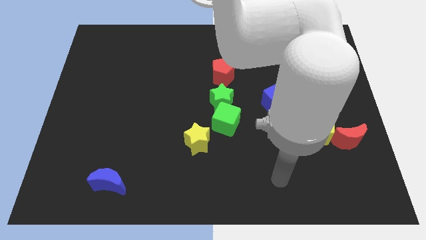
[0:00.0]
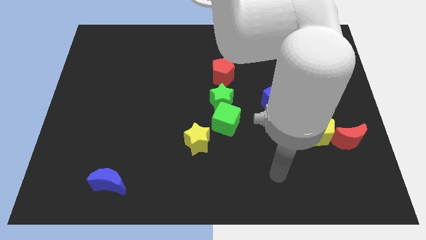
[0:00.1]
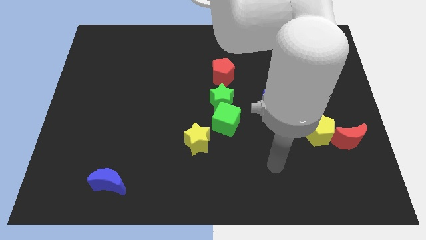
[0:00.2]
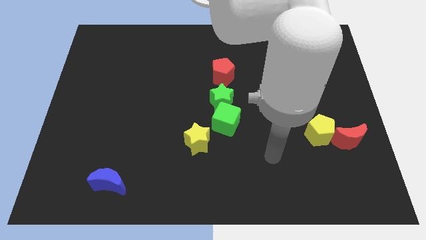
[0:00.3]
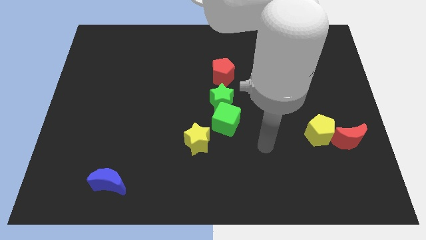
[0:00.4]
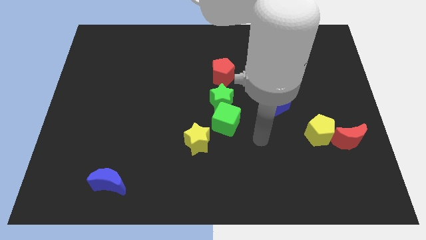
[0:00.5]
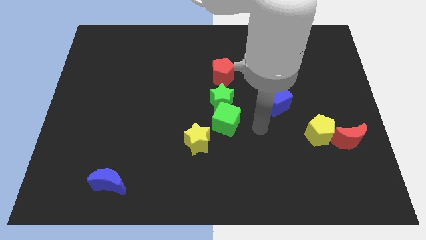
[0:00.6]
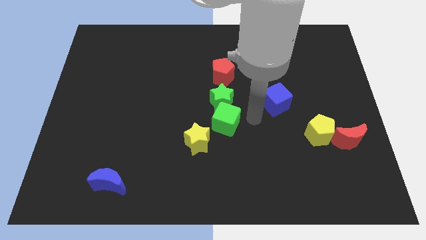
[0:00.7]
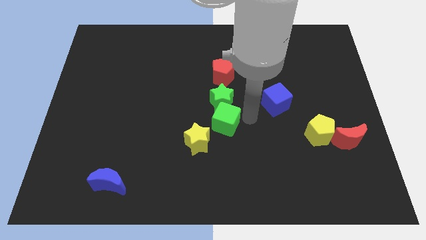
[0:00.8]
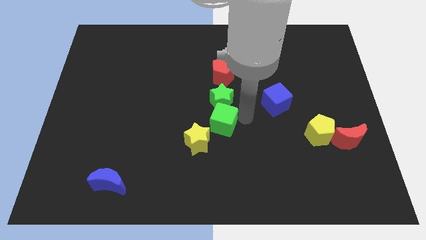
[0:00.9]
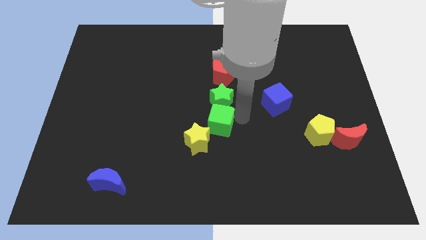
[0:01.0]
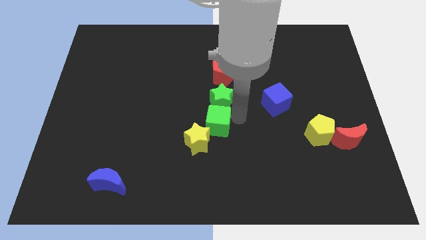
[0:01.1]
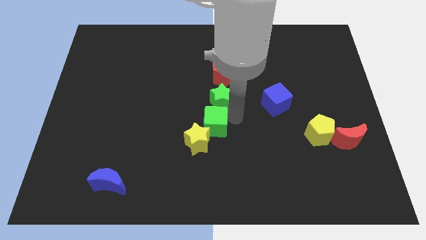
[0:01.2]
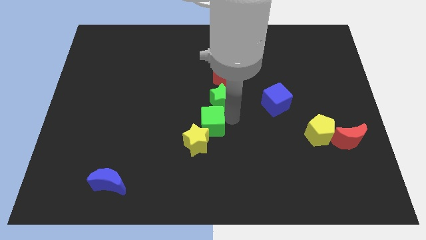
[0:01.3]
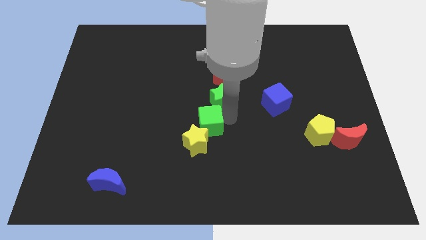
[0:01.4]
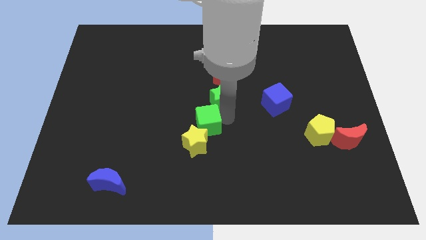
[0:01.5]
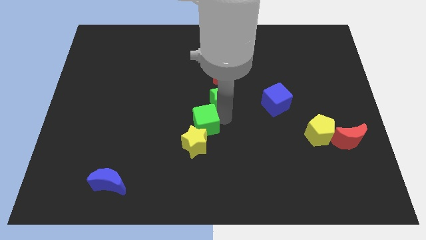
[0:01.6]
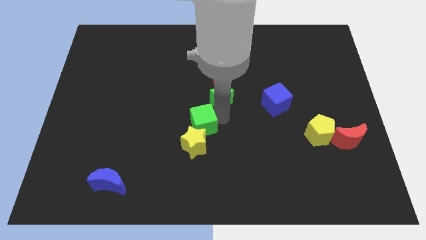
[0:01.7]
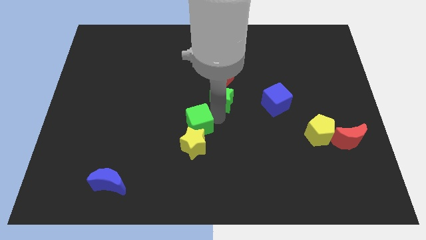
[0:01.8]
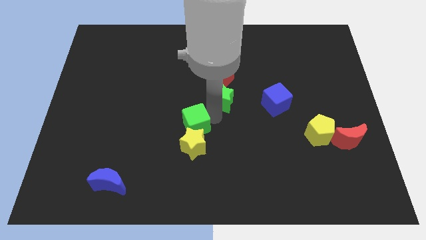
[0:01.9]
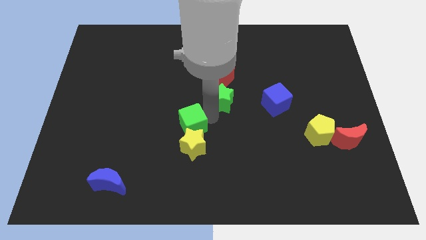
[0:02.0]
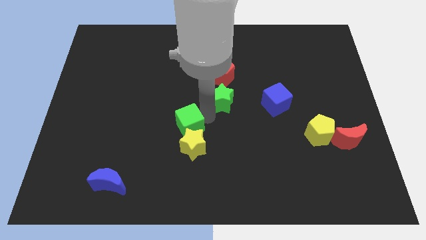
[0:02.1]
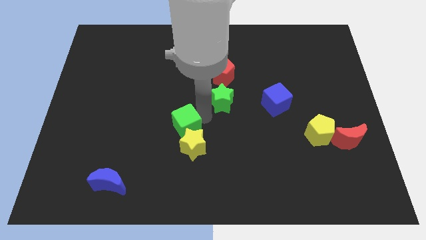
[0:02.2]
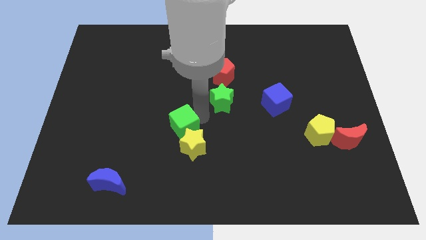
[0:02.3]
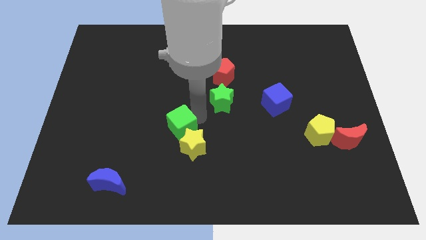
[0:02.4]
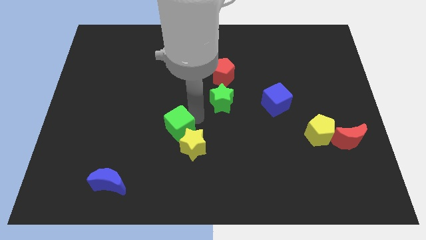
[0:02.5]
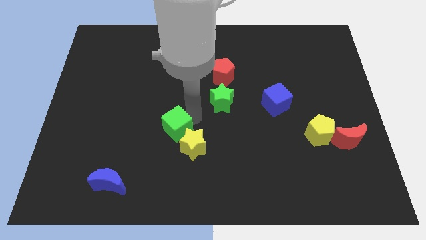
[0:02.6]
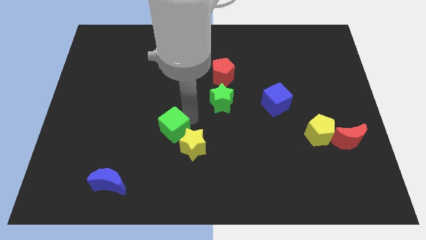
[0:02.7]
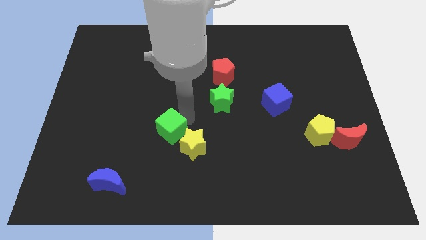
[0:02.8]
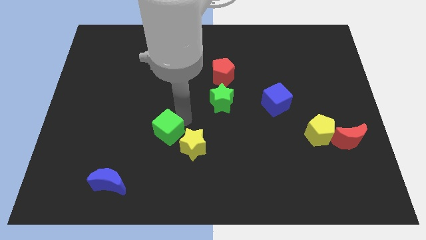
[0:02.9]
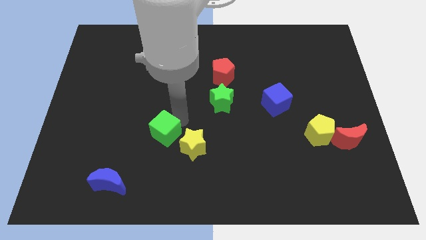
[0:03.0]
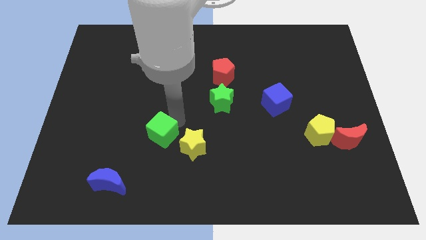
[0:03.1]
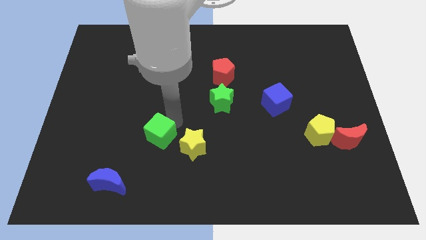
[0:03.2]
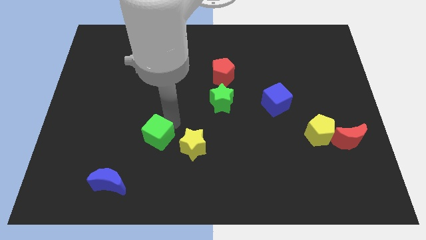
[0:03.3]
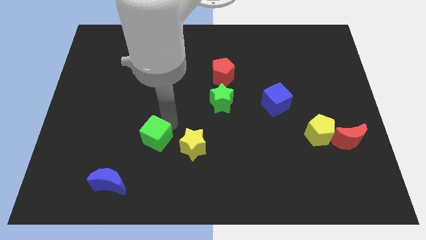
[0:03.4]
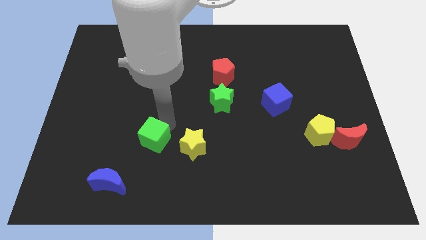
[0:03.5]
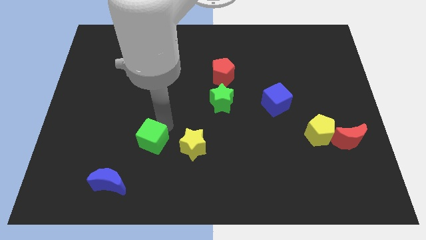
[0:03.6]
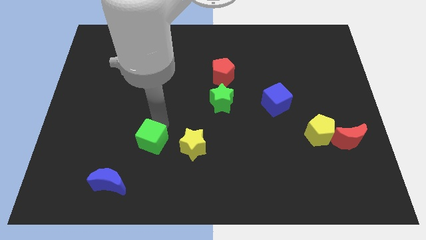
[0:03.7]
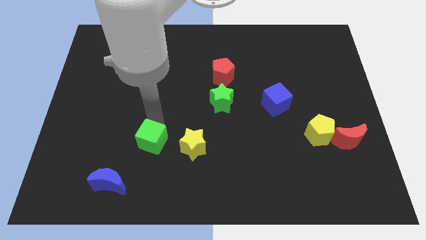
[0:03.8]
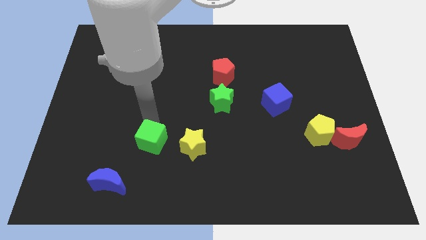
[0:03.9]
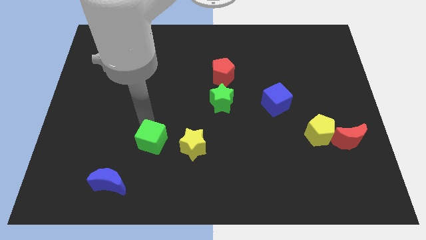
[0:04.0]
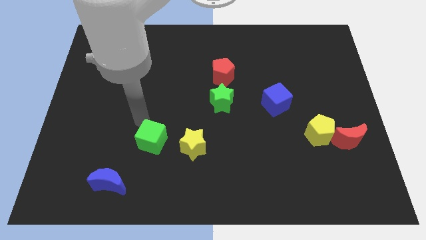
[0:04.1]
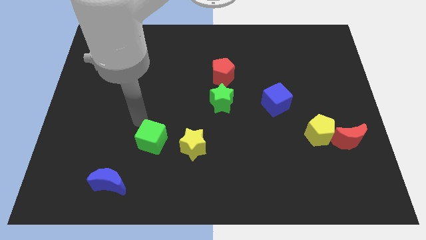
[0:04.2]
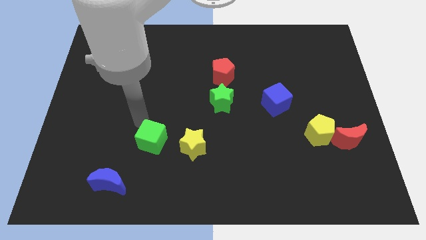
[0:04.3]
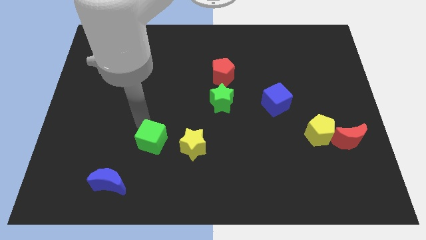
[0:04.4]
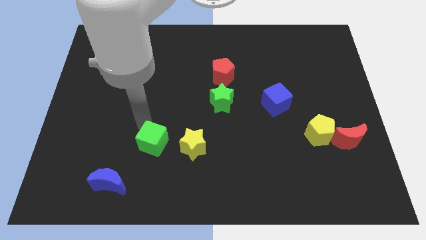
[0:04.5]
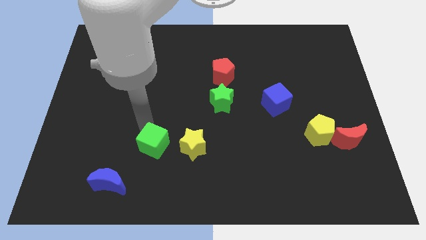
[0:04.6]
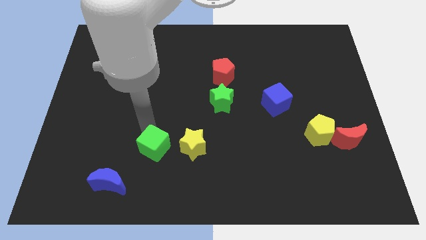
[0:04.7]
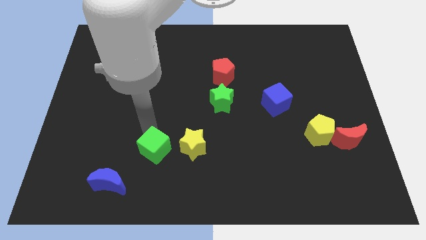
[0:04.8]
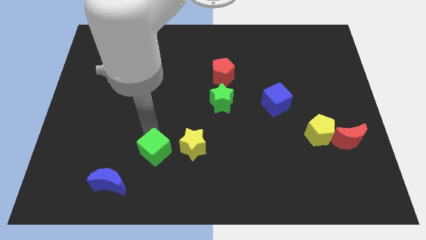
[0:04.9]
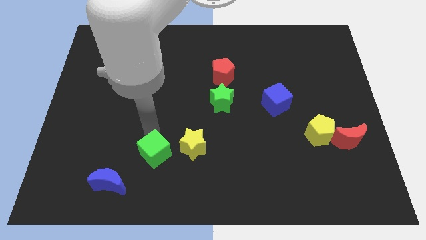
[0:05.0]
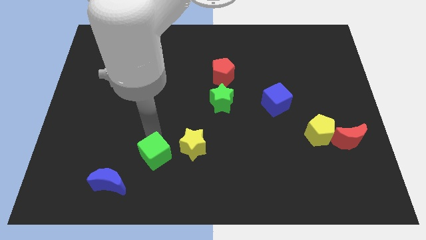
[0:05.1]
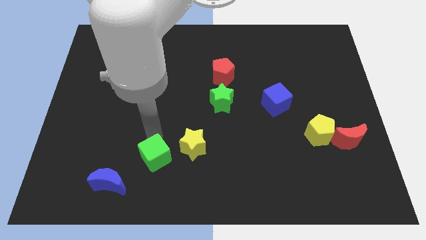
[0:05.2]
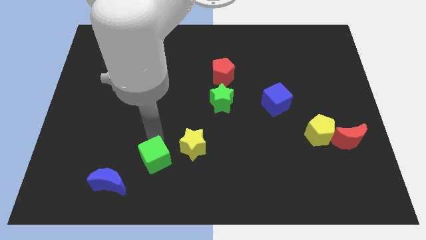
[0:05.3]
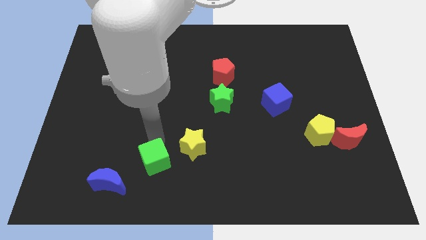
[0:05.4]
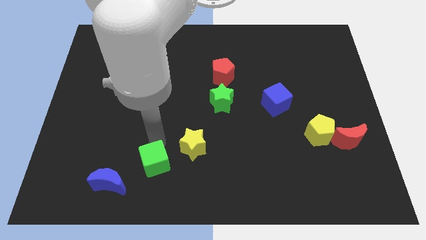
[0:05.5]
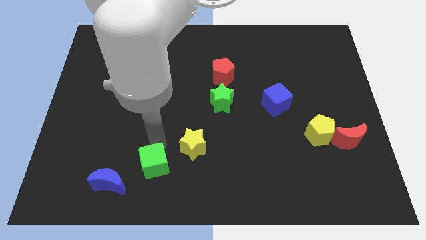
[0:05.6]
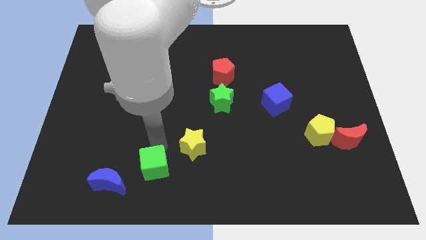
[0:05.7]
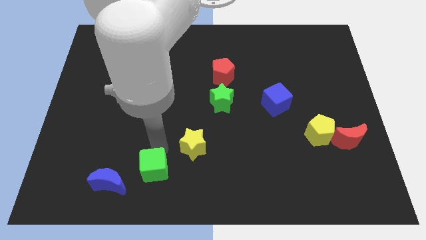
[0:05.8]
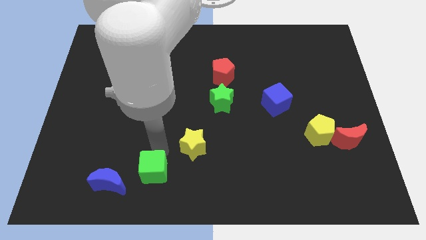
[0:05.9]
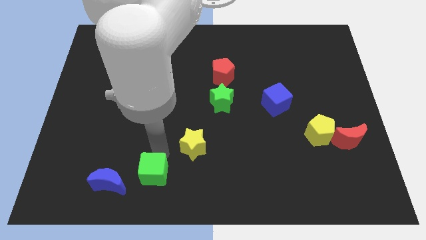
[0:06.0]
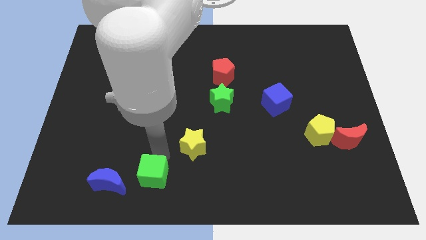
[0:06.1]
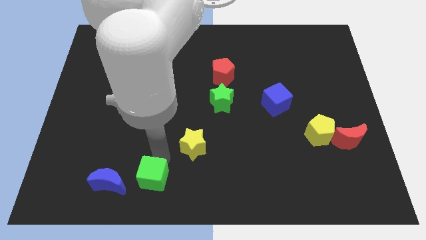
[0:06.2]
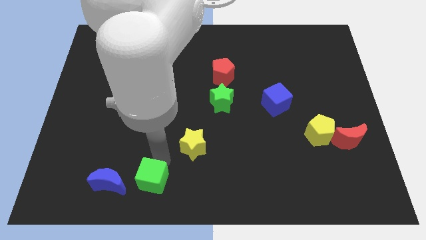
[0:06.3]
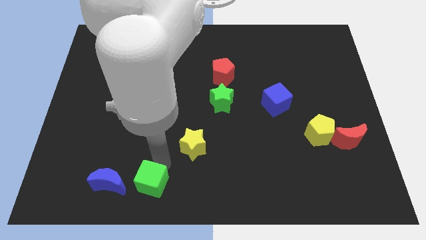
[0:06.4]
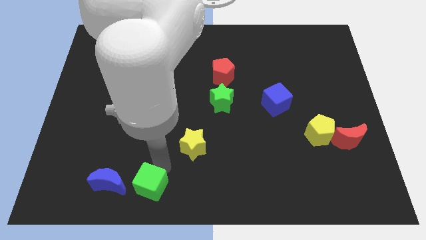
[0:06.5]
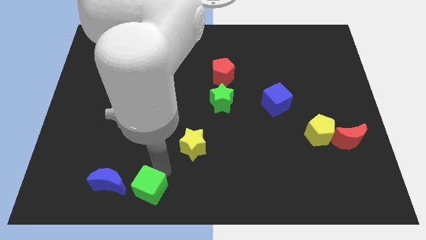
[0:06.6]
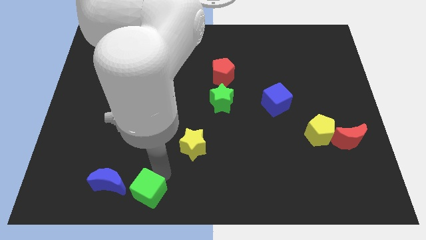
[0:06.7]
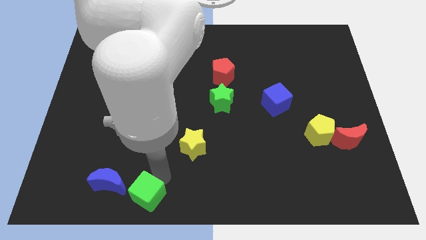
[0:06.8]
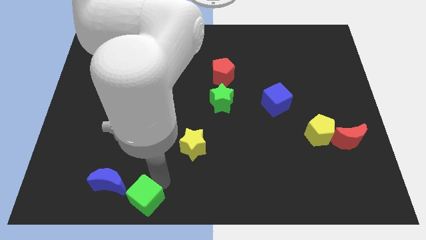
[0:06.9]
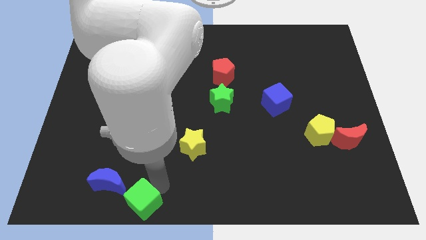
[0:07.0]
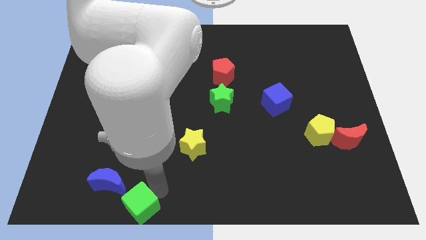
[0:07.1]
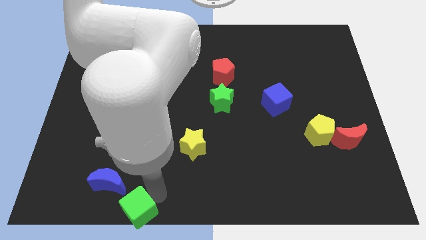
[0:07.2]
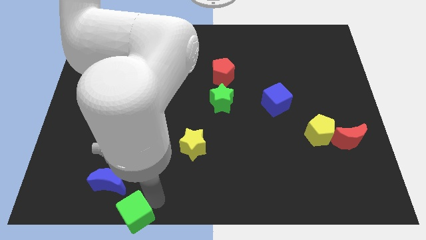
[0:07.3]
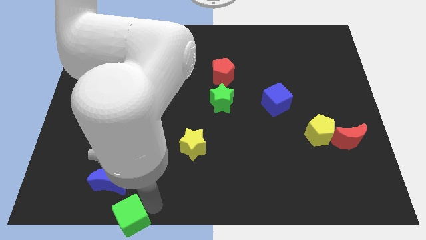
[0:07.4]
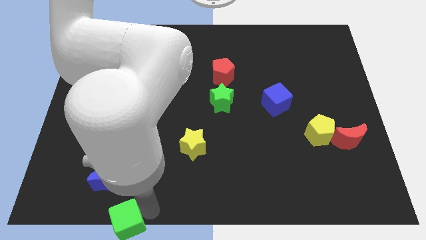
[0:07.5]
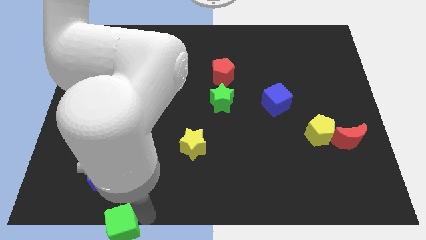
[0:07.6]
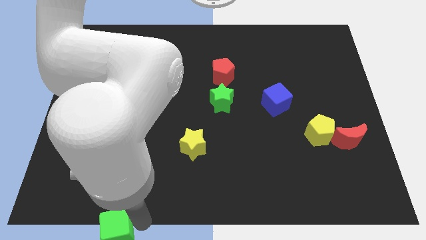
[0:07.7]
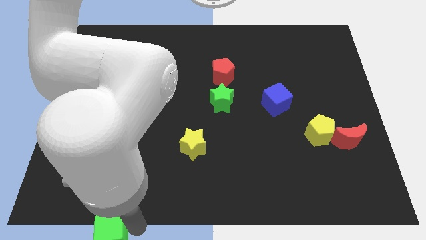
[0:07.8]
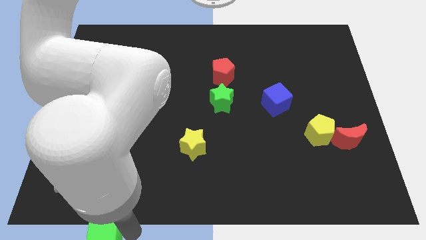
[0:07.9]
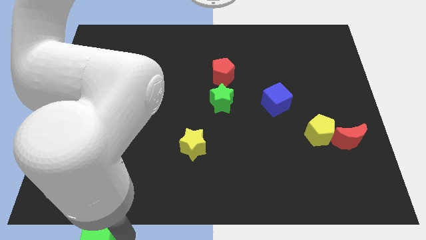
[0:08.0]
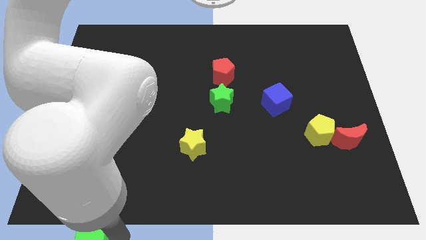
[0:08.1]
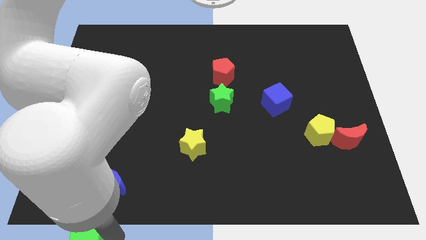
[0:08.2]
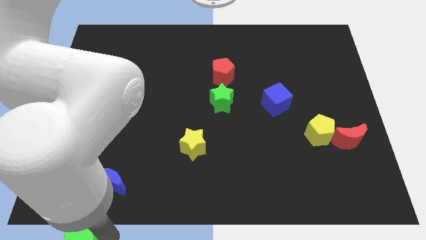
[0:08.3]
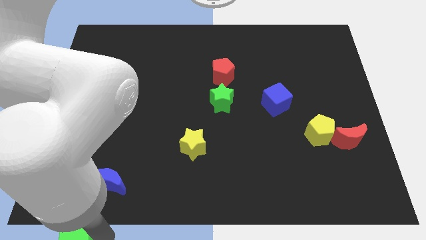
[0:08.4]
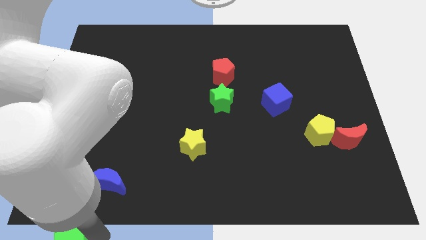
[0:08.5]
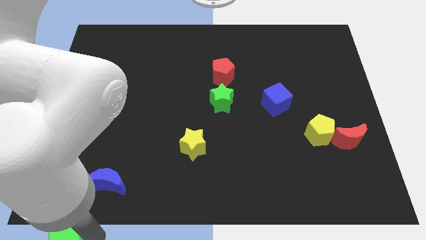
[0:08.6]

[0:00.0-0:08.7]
slide the green cube to the bottom left of the board
